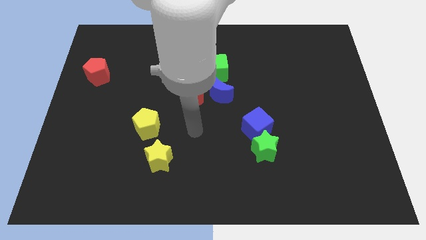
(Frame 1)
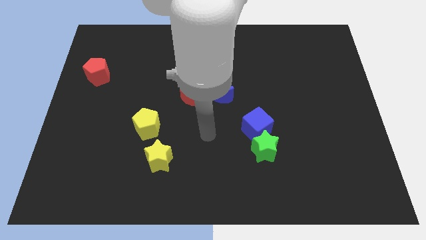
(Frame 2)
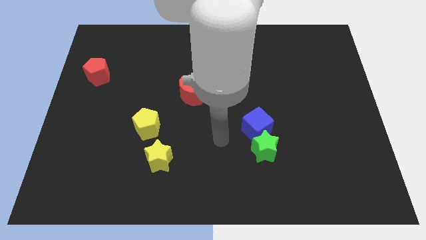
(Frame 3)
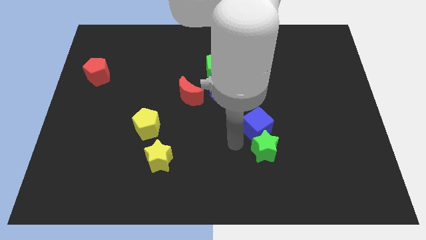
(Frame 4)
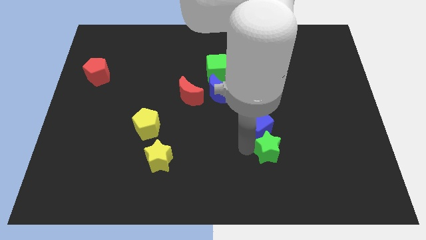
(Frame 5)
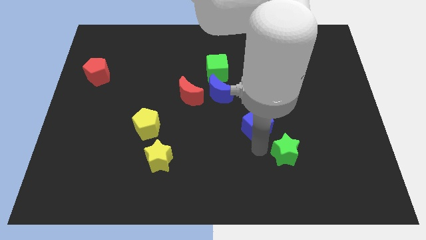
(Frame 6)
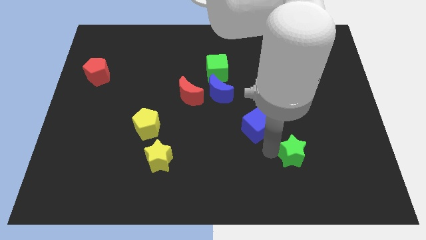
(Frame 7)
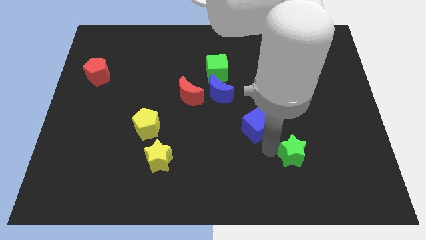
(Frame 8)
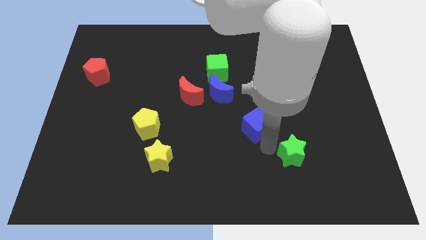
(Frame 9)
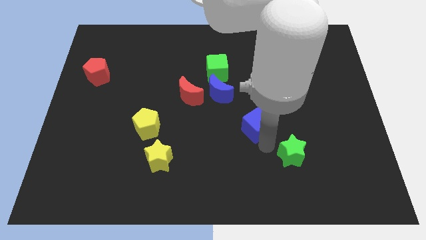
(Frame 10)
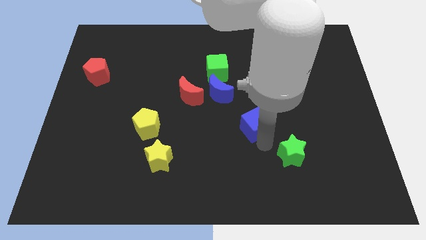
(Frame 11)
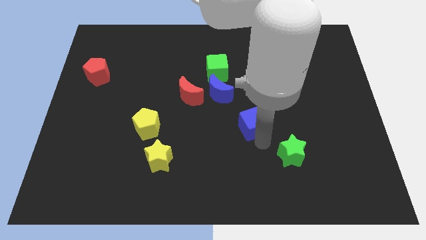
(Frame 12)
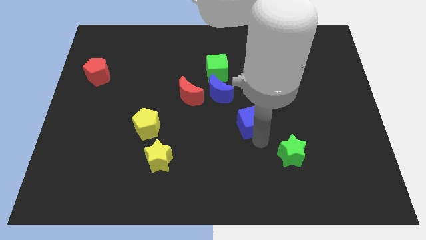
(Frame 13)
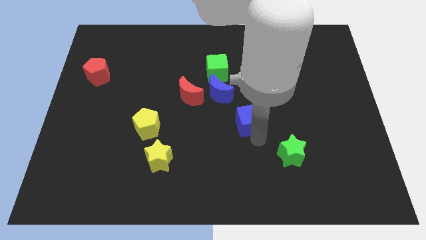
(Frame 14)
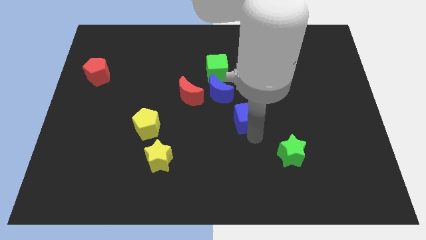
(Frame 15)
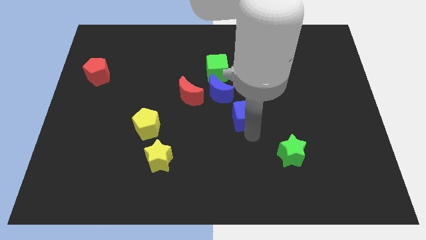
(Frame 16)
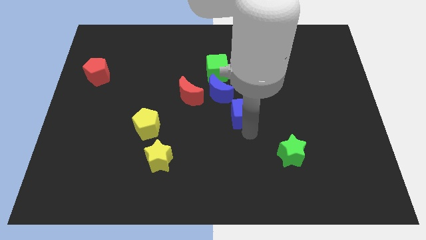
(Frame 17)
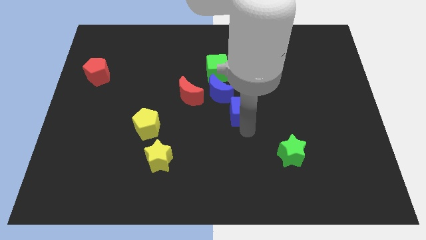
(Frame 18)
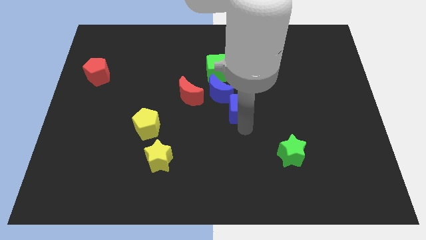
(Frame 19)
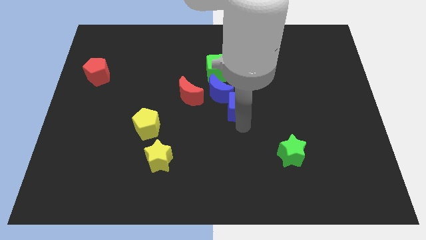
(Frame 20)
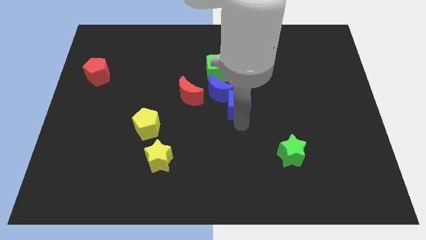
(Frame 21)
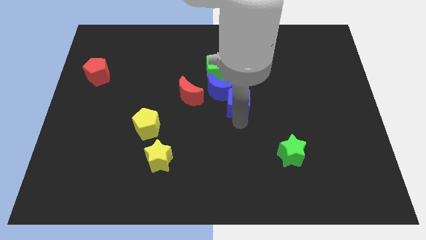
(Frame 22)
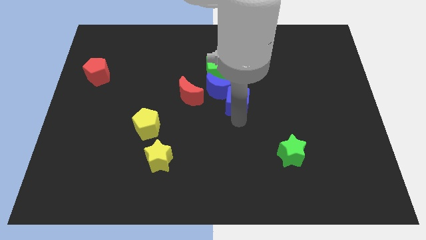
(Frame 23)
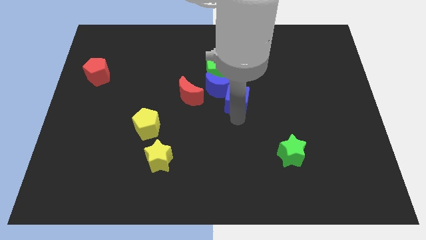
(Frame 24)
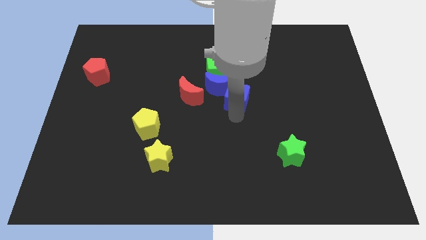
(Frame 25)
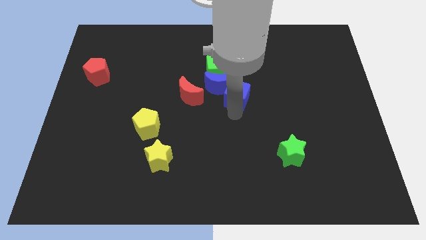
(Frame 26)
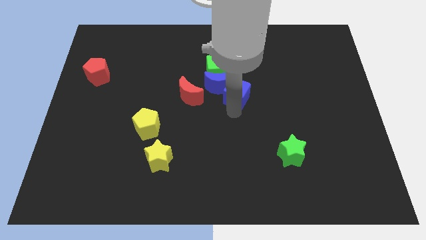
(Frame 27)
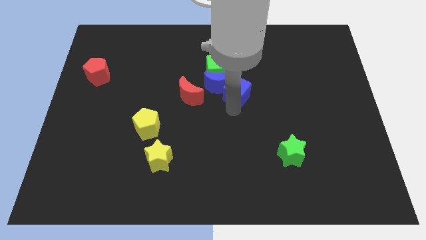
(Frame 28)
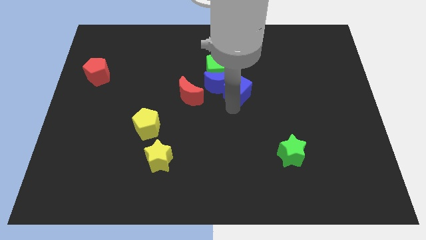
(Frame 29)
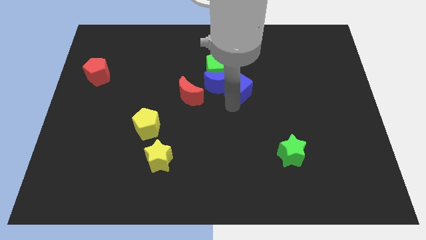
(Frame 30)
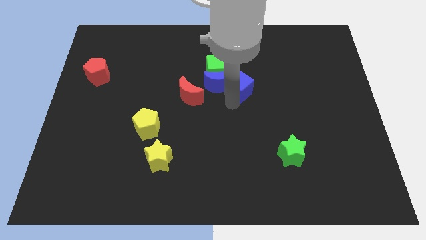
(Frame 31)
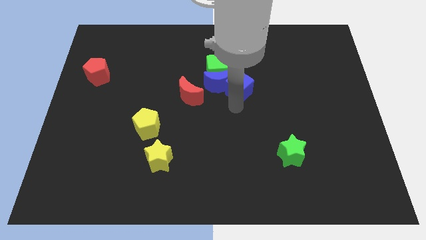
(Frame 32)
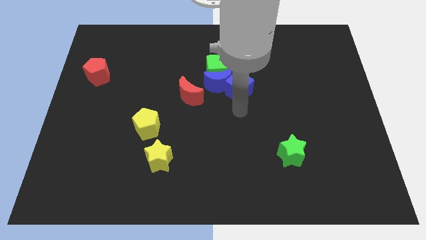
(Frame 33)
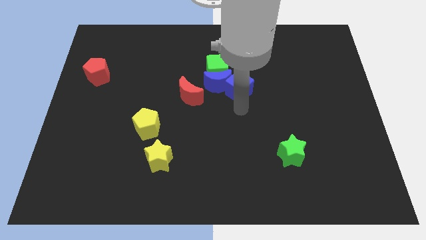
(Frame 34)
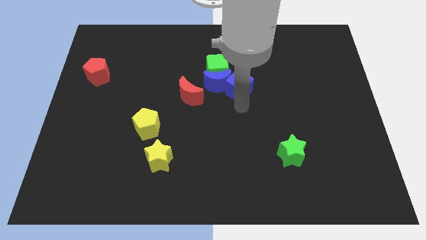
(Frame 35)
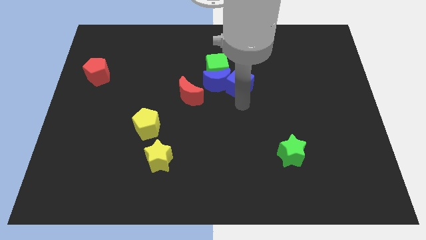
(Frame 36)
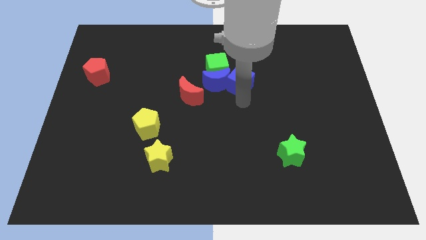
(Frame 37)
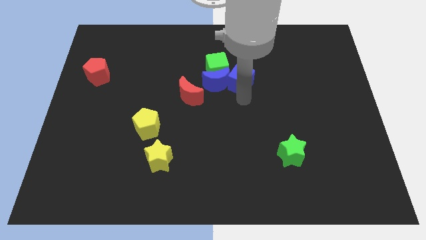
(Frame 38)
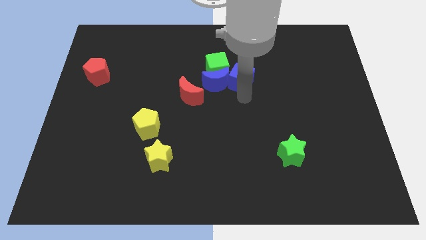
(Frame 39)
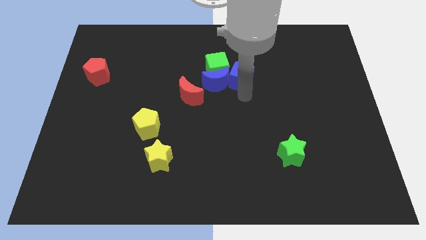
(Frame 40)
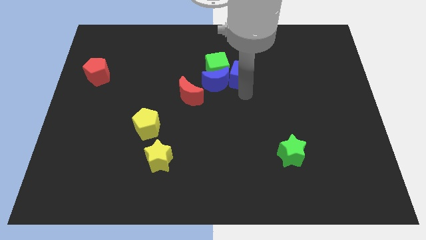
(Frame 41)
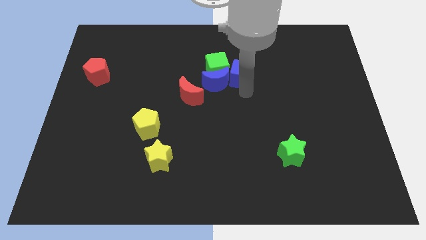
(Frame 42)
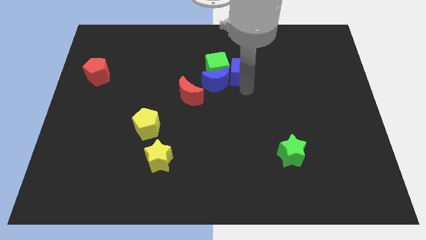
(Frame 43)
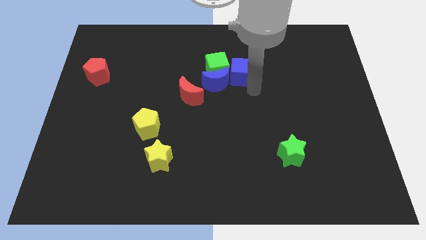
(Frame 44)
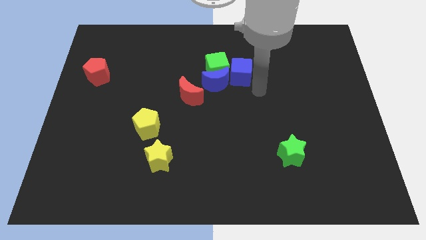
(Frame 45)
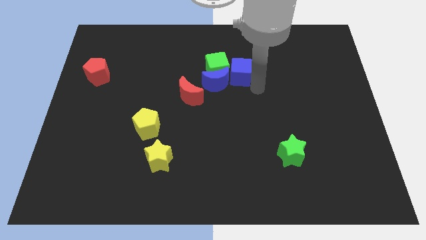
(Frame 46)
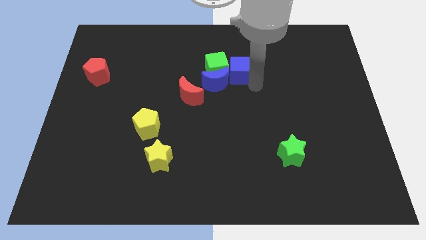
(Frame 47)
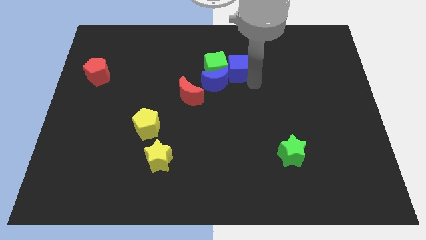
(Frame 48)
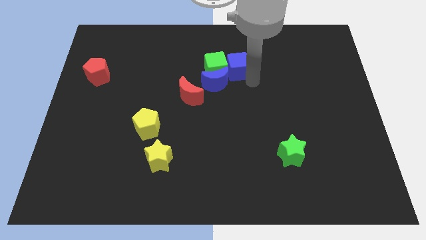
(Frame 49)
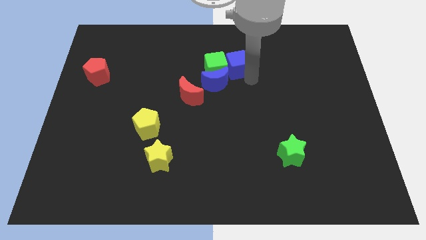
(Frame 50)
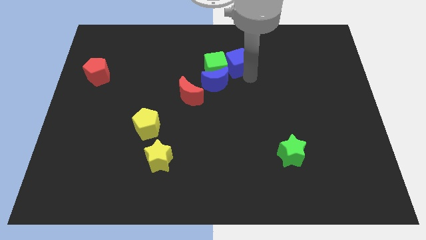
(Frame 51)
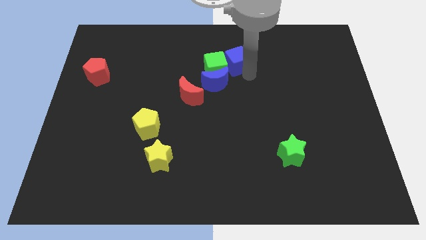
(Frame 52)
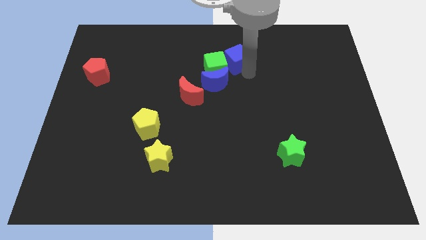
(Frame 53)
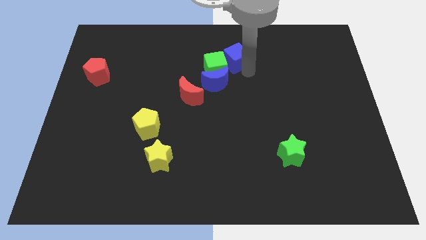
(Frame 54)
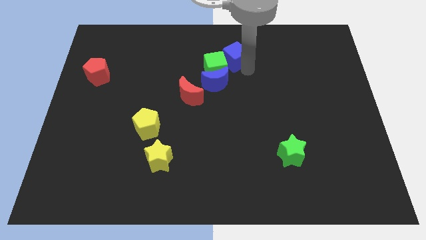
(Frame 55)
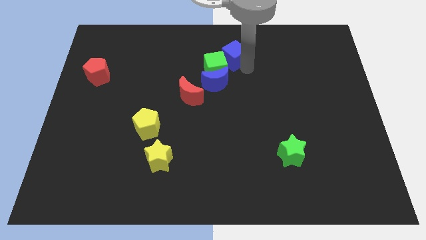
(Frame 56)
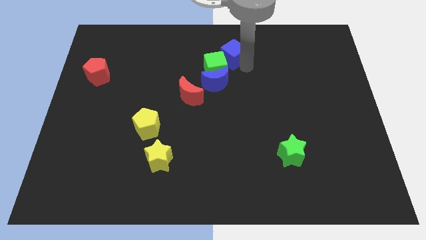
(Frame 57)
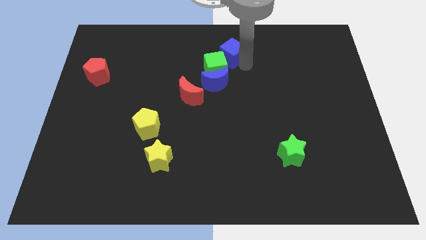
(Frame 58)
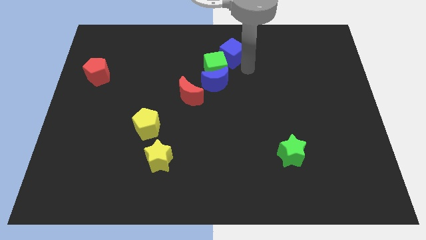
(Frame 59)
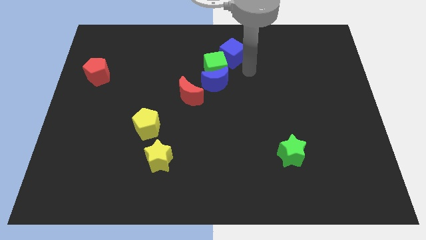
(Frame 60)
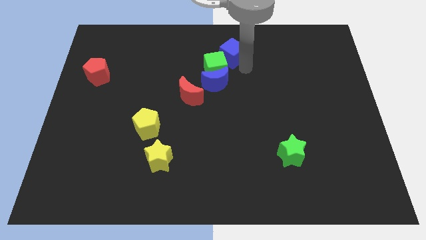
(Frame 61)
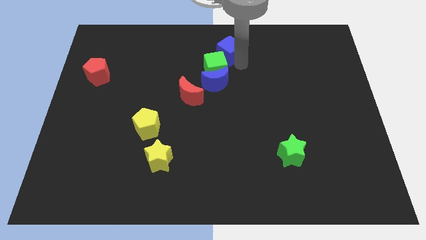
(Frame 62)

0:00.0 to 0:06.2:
move the blue cube to the towards your base
